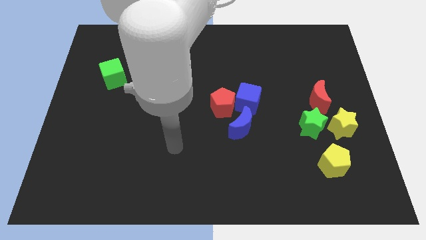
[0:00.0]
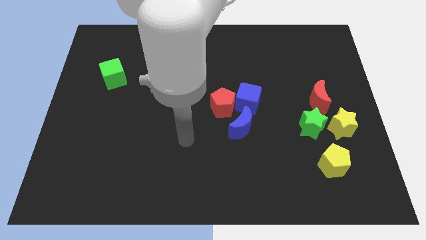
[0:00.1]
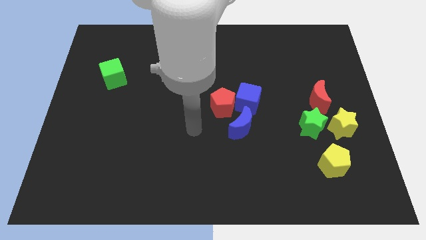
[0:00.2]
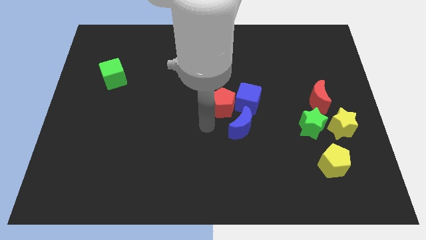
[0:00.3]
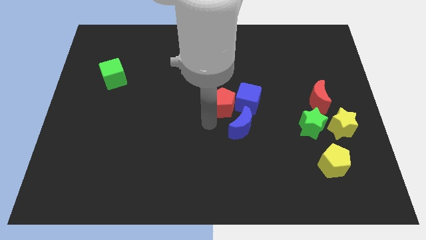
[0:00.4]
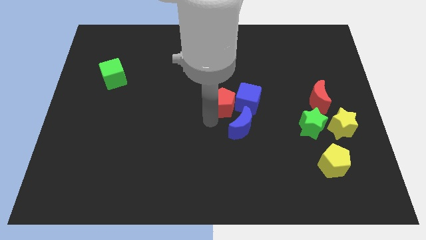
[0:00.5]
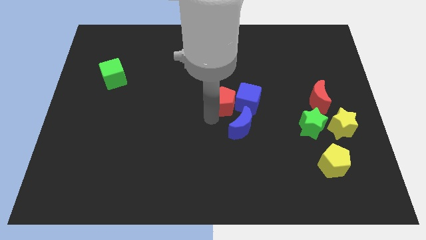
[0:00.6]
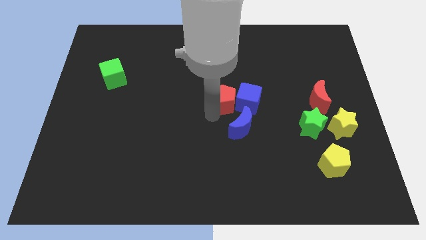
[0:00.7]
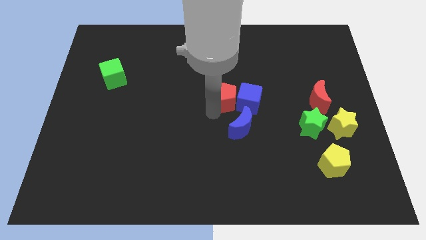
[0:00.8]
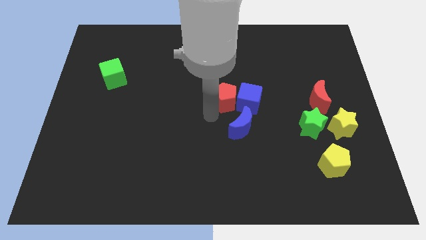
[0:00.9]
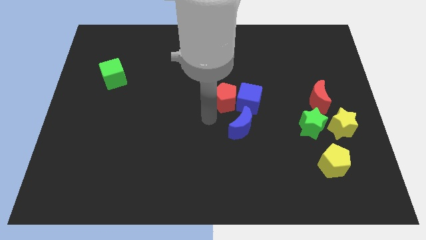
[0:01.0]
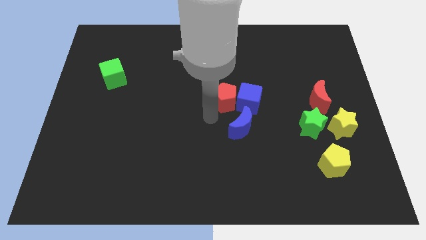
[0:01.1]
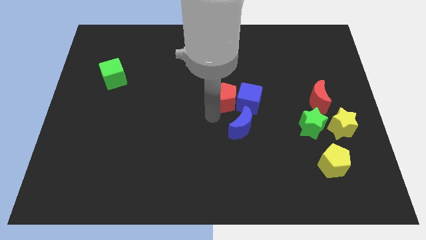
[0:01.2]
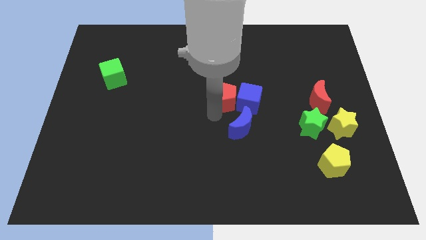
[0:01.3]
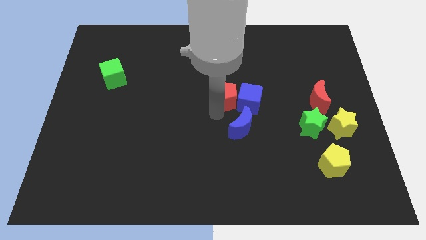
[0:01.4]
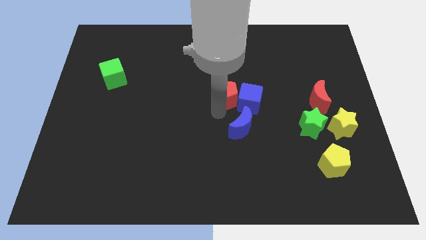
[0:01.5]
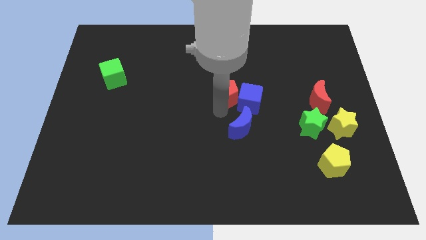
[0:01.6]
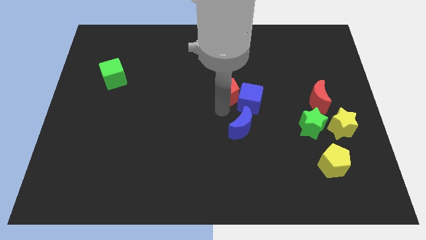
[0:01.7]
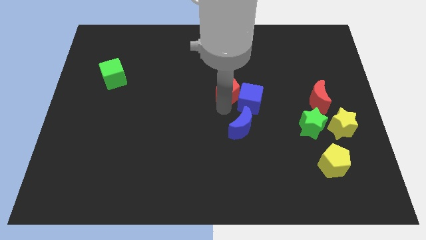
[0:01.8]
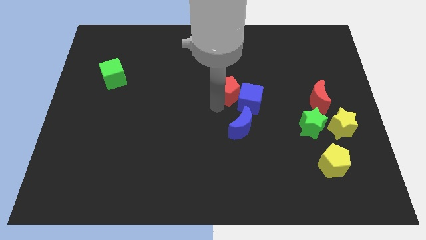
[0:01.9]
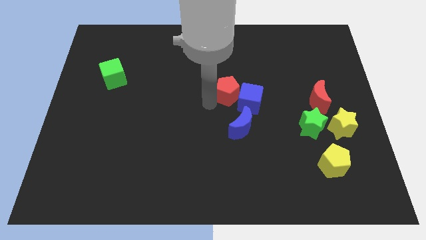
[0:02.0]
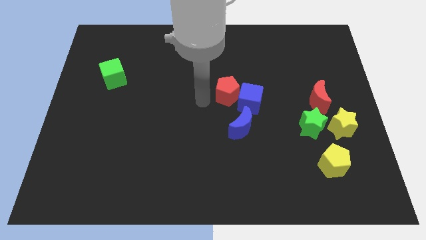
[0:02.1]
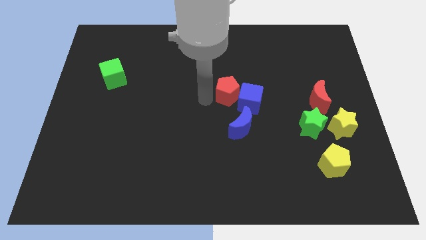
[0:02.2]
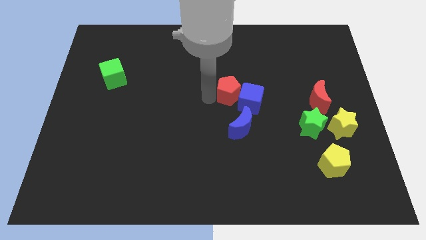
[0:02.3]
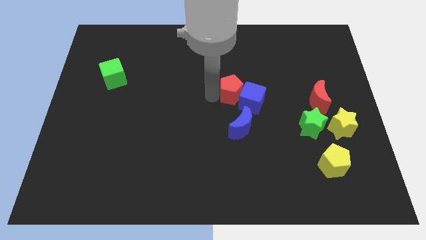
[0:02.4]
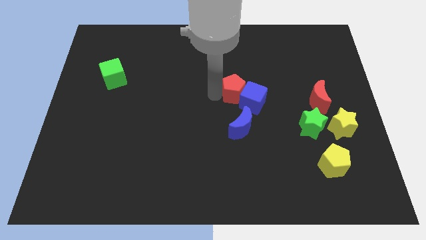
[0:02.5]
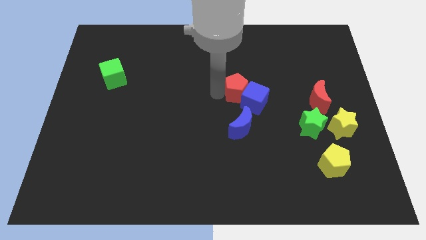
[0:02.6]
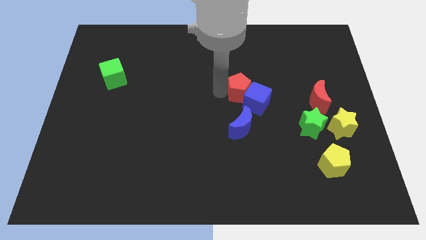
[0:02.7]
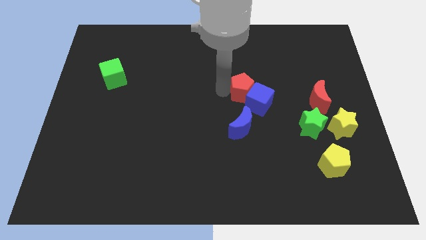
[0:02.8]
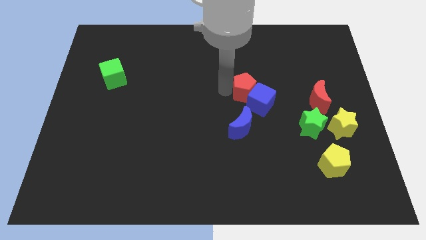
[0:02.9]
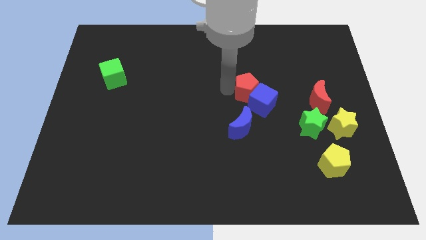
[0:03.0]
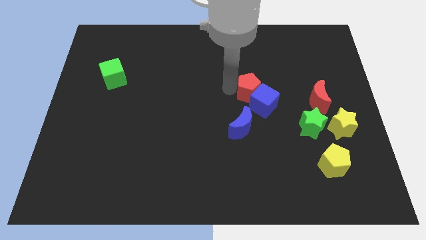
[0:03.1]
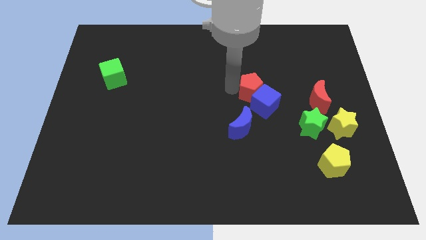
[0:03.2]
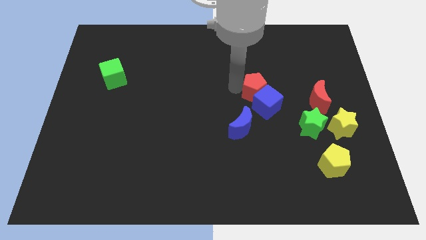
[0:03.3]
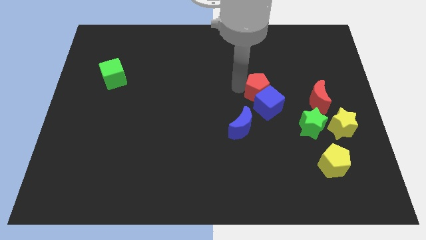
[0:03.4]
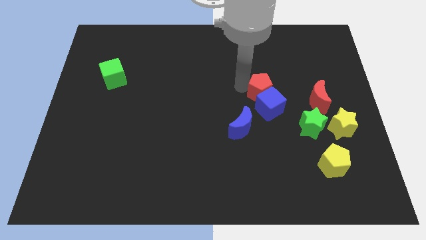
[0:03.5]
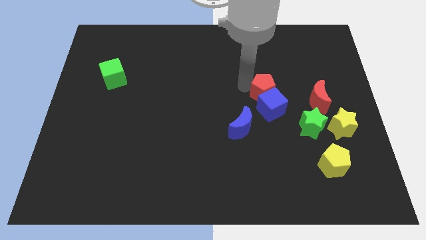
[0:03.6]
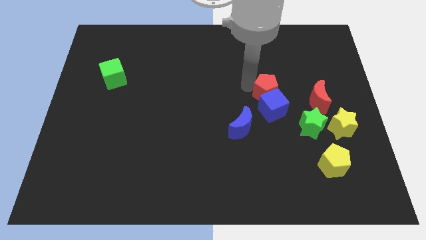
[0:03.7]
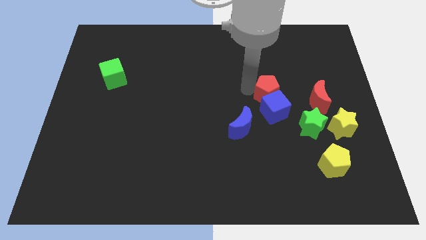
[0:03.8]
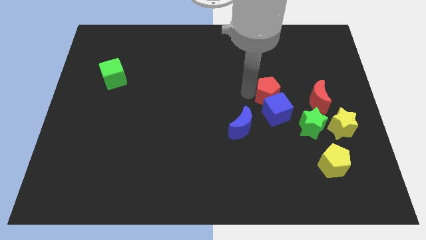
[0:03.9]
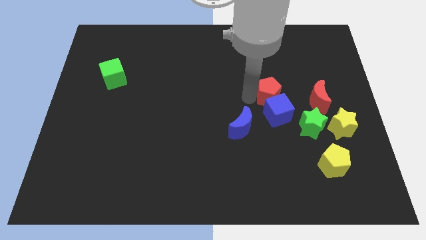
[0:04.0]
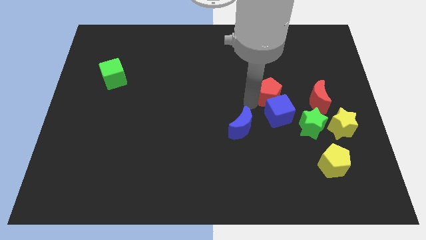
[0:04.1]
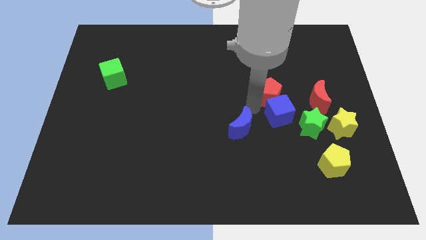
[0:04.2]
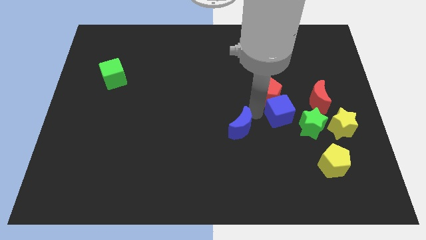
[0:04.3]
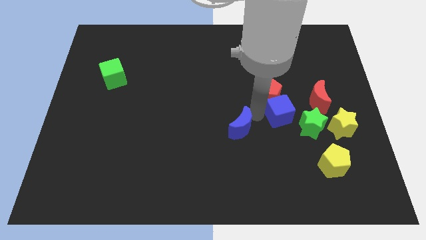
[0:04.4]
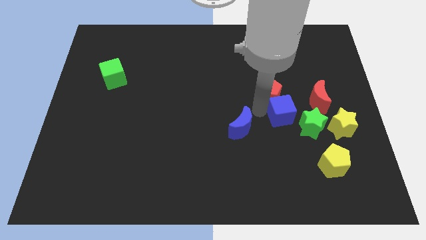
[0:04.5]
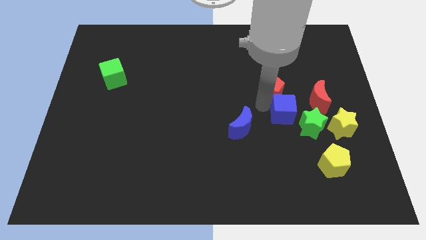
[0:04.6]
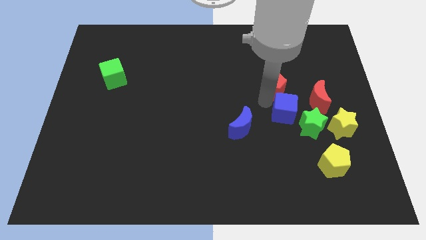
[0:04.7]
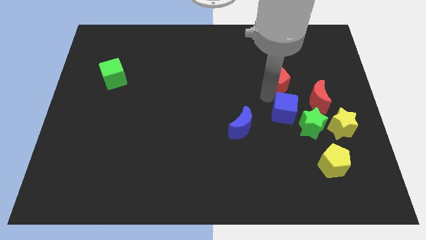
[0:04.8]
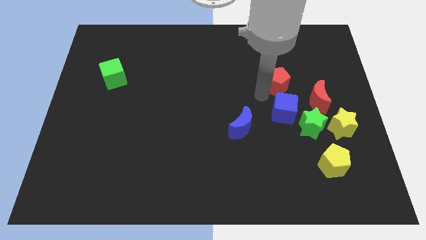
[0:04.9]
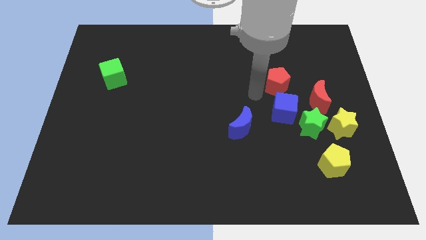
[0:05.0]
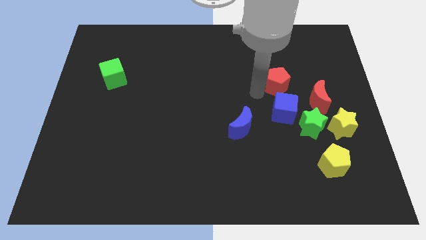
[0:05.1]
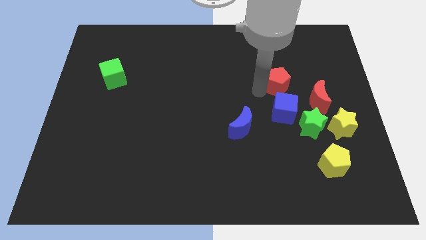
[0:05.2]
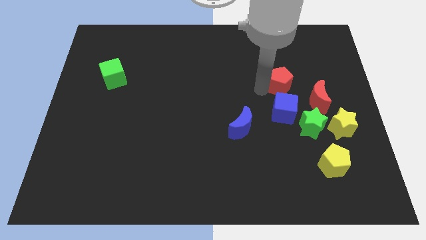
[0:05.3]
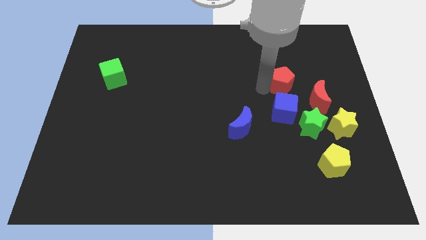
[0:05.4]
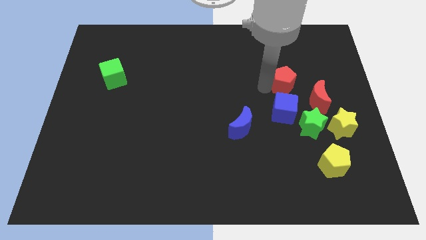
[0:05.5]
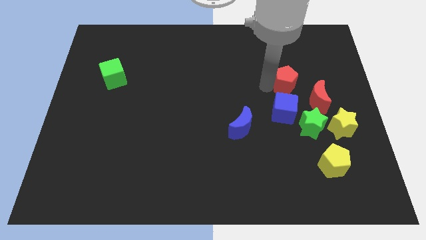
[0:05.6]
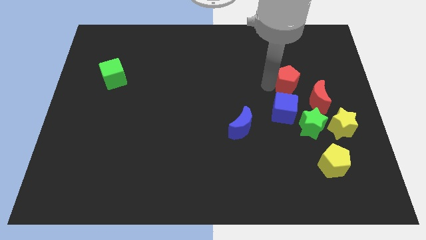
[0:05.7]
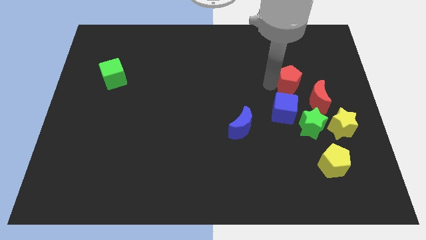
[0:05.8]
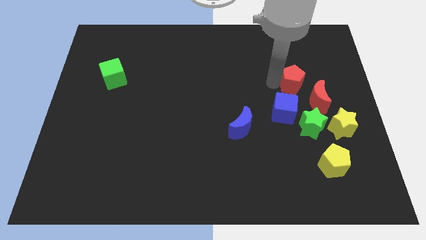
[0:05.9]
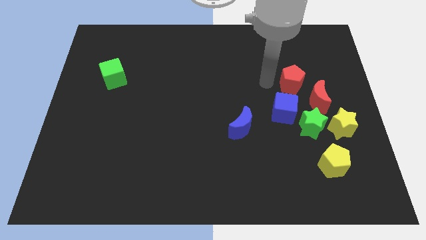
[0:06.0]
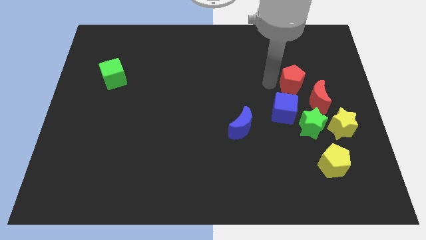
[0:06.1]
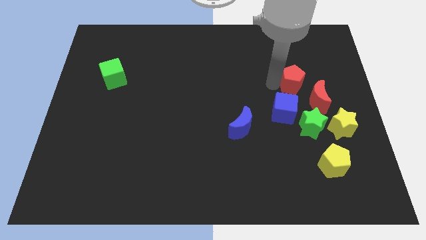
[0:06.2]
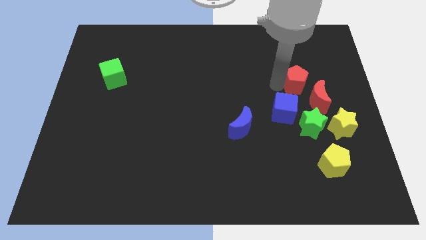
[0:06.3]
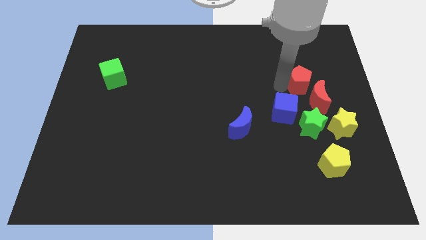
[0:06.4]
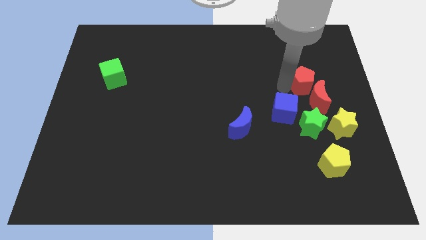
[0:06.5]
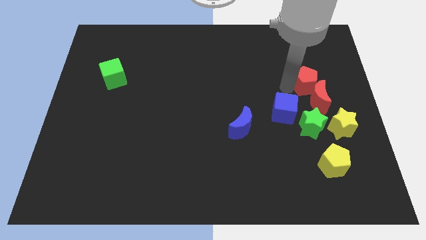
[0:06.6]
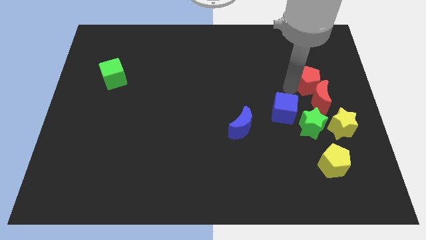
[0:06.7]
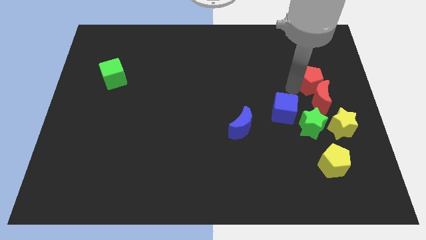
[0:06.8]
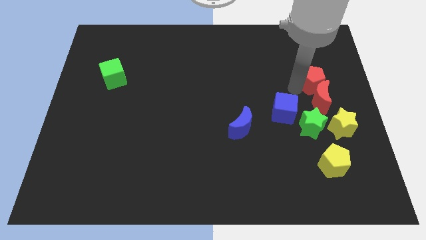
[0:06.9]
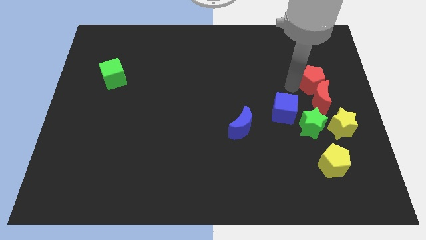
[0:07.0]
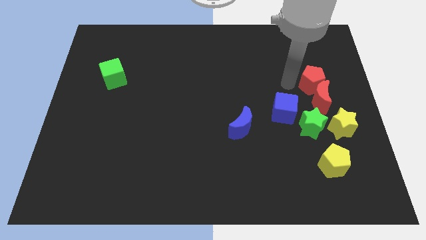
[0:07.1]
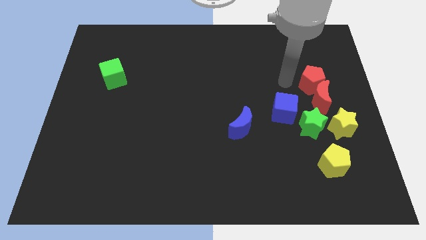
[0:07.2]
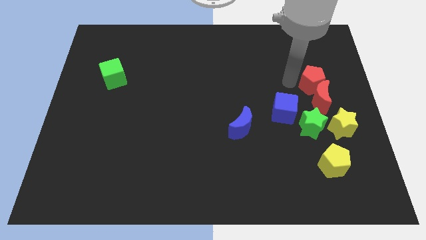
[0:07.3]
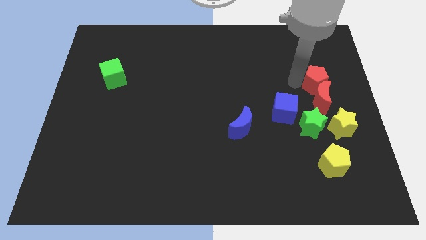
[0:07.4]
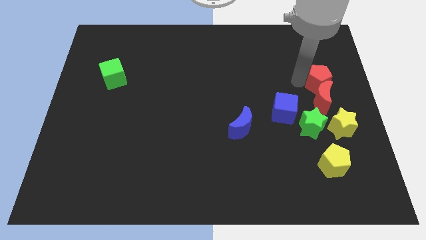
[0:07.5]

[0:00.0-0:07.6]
slide the red pentagon to the right side
